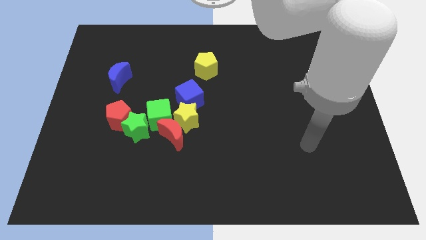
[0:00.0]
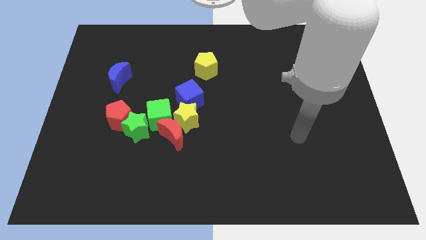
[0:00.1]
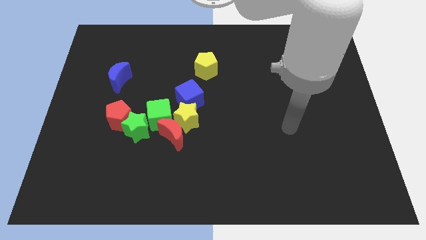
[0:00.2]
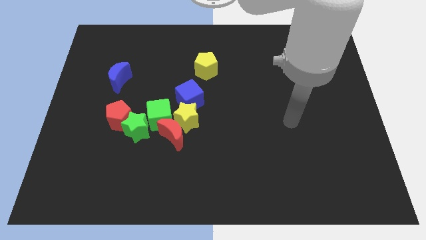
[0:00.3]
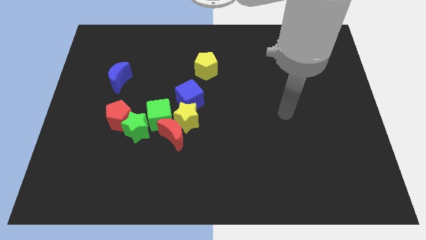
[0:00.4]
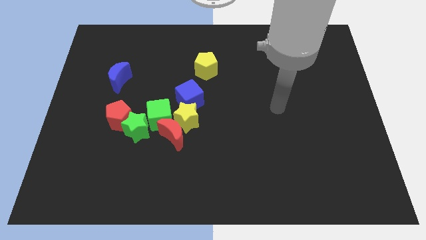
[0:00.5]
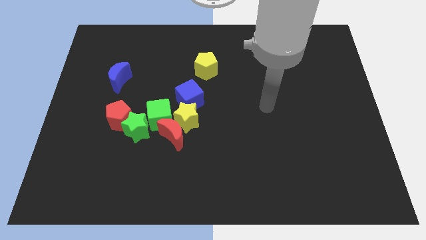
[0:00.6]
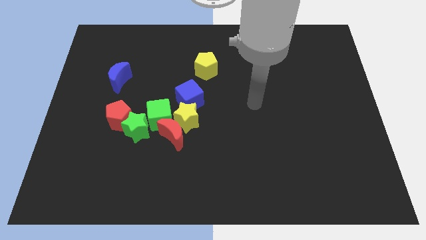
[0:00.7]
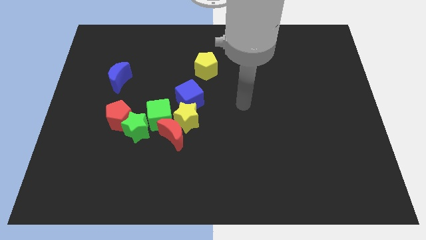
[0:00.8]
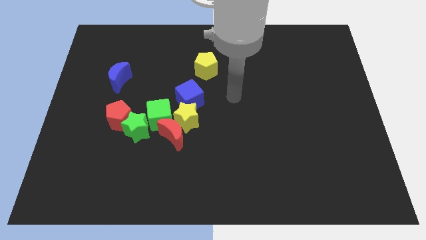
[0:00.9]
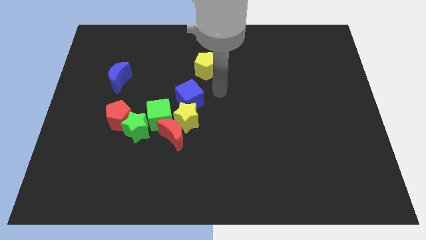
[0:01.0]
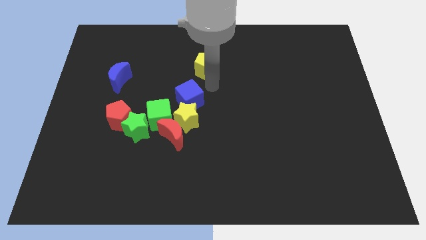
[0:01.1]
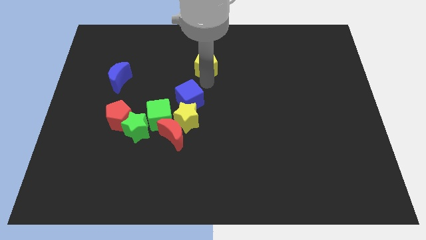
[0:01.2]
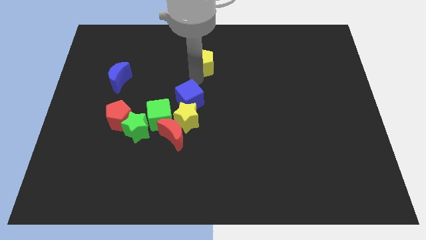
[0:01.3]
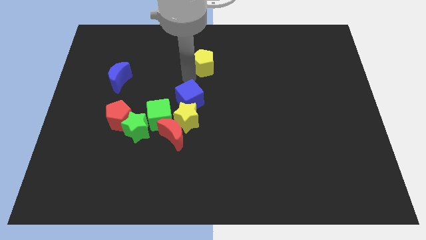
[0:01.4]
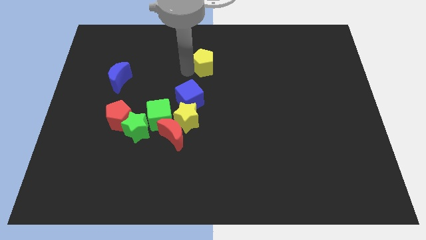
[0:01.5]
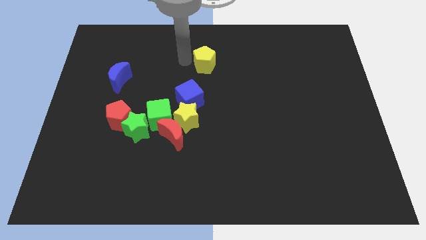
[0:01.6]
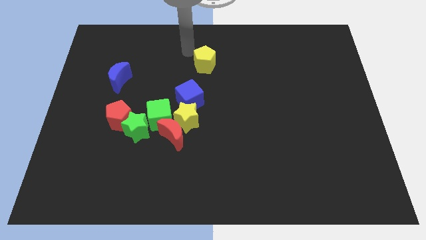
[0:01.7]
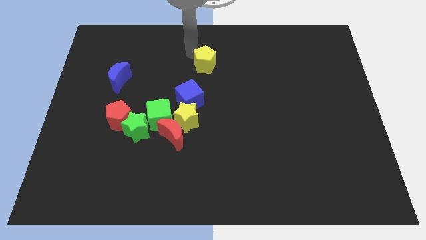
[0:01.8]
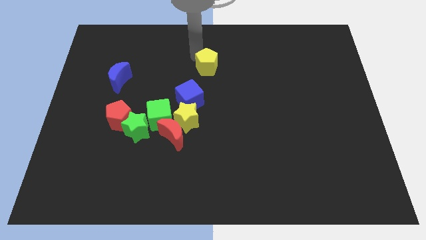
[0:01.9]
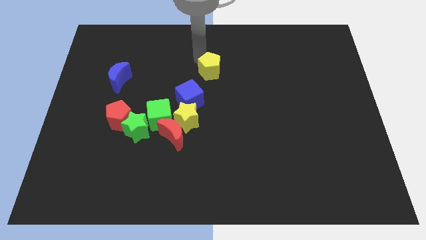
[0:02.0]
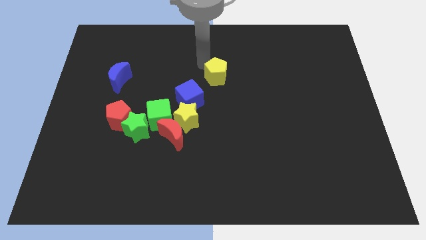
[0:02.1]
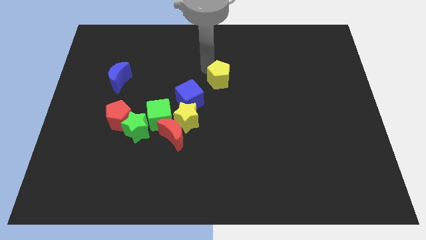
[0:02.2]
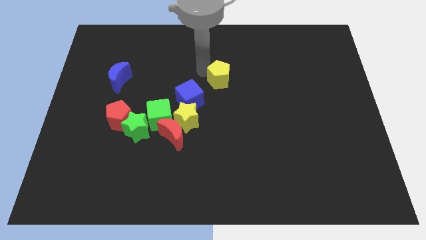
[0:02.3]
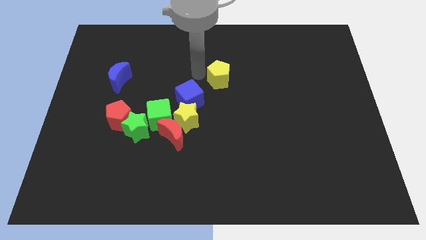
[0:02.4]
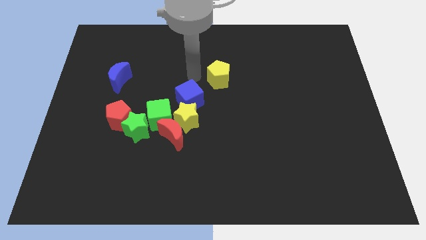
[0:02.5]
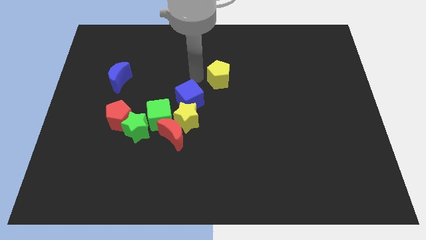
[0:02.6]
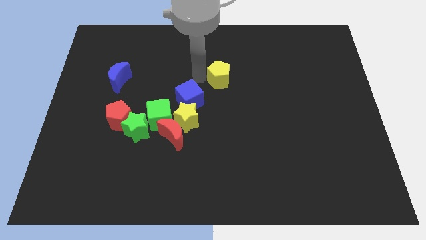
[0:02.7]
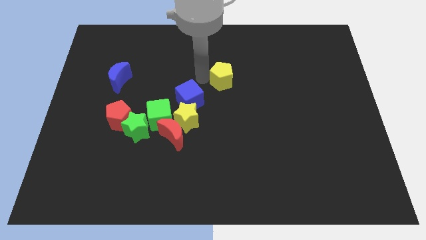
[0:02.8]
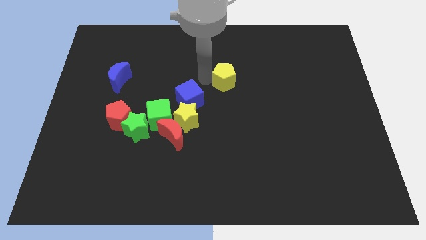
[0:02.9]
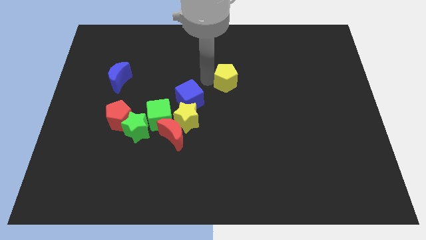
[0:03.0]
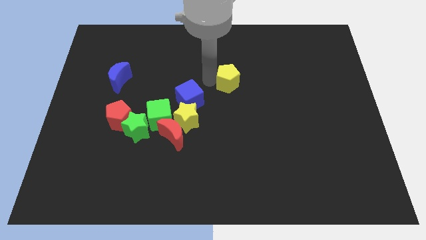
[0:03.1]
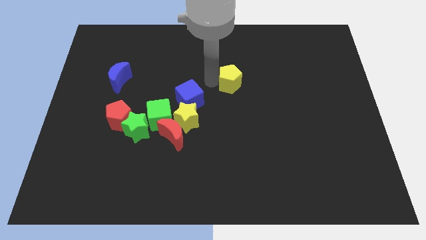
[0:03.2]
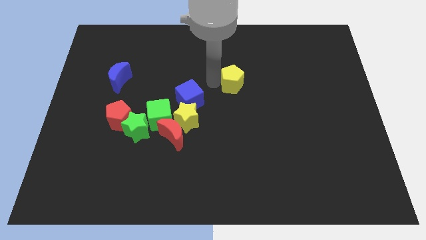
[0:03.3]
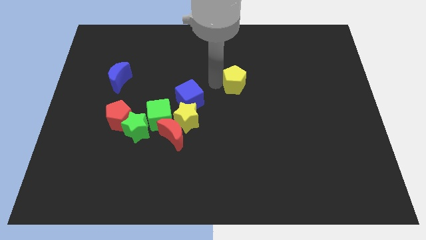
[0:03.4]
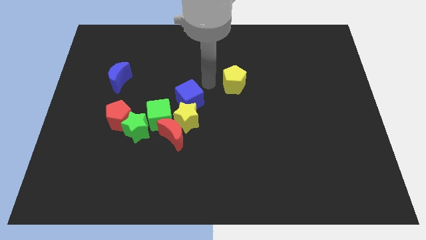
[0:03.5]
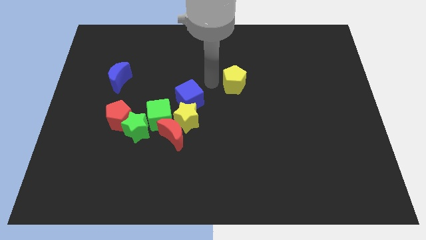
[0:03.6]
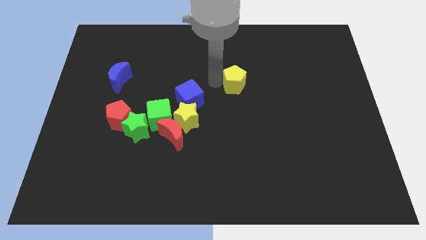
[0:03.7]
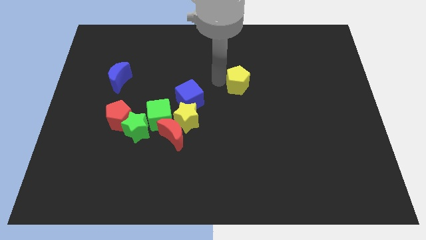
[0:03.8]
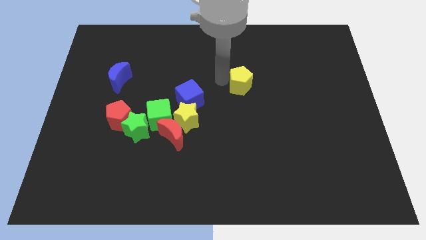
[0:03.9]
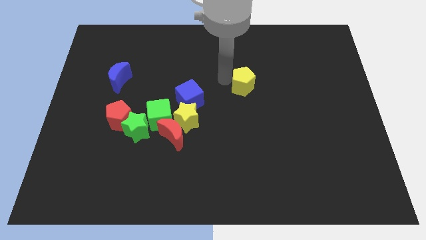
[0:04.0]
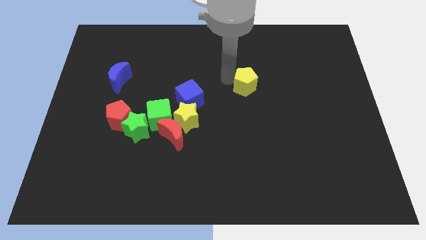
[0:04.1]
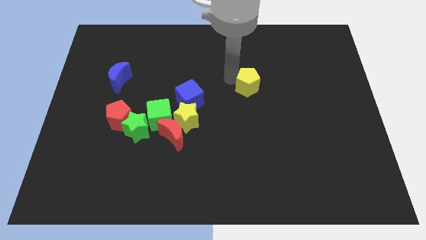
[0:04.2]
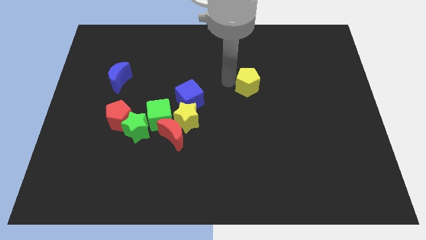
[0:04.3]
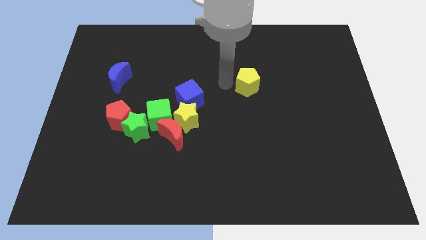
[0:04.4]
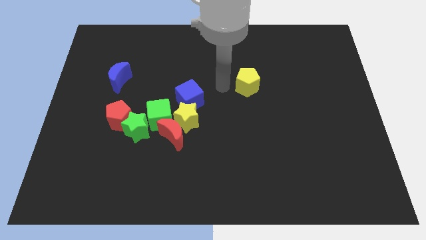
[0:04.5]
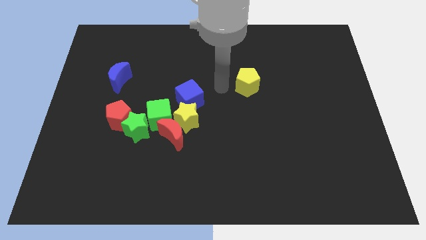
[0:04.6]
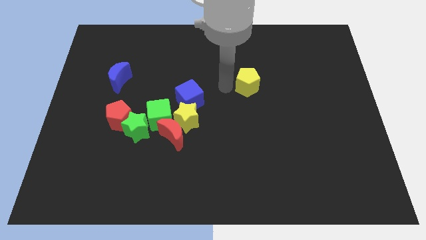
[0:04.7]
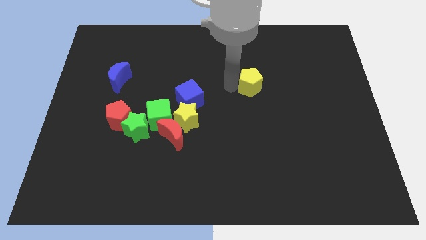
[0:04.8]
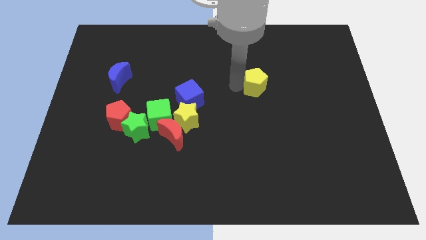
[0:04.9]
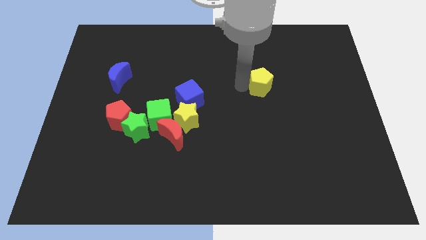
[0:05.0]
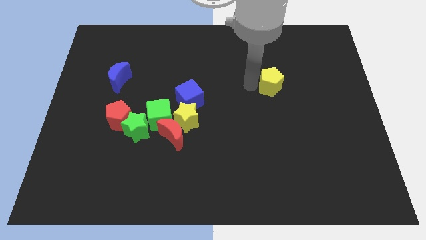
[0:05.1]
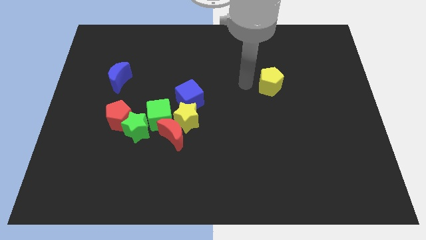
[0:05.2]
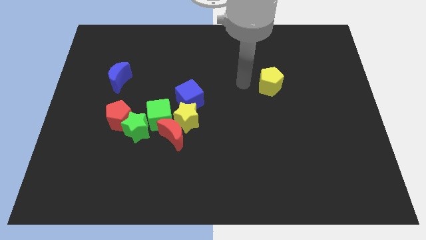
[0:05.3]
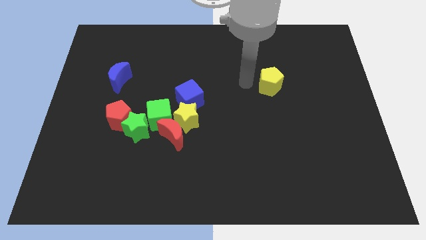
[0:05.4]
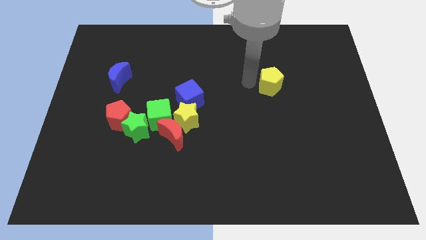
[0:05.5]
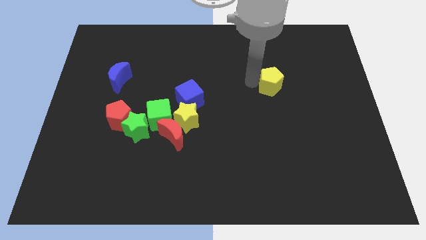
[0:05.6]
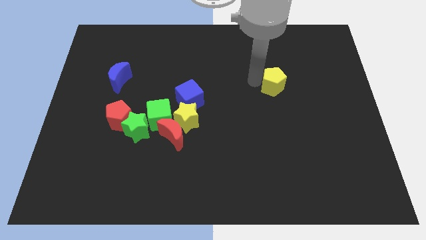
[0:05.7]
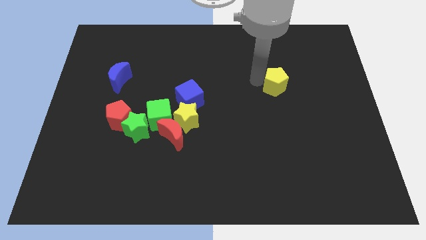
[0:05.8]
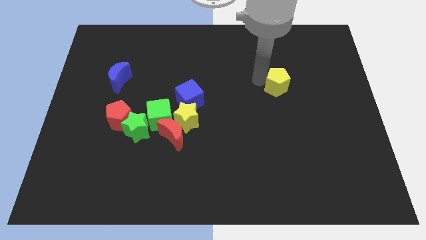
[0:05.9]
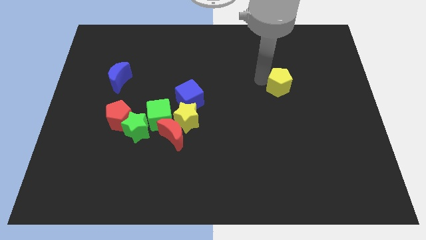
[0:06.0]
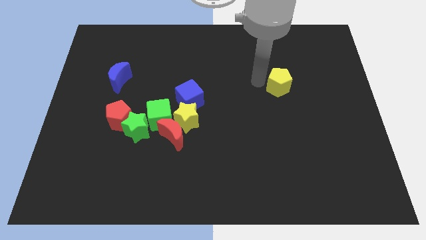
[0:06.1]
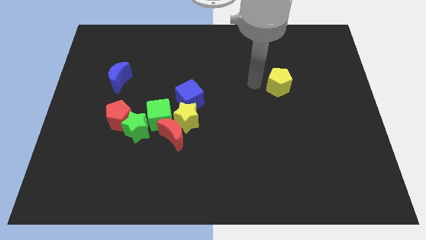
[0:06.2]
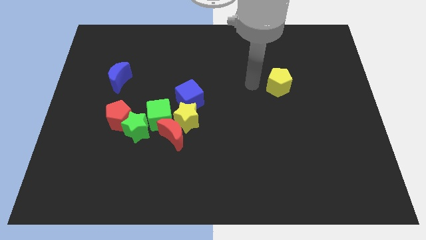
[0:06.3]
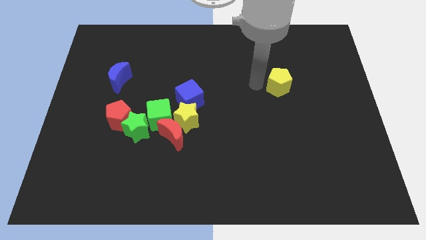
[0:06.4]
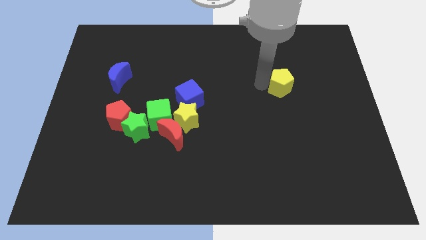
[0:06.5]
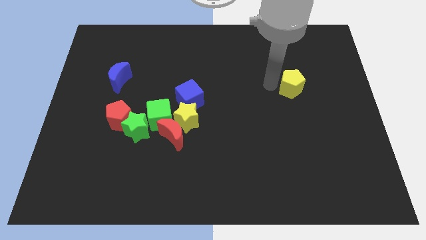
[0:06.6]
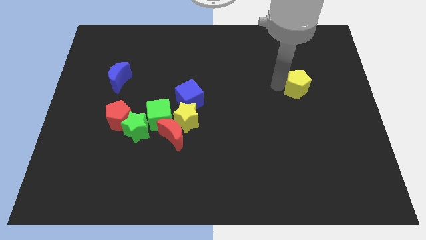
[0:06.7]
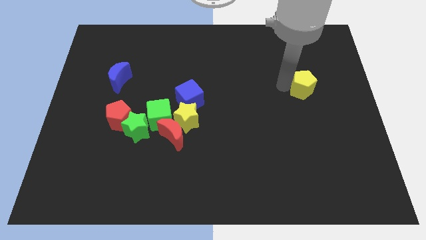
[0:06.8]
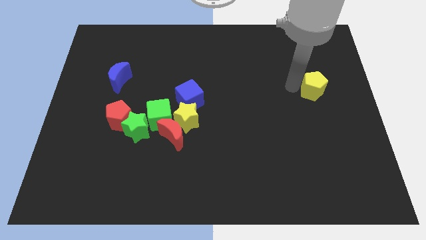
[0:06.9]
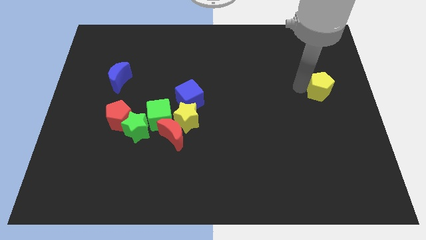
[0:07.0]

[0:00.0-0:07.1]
move the yellow pentagon to the right side of the board
